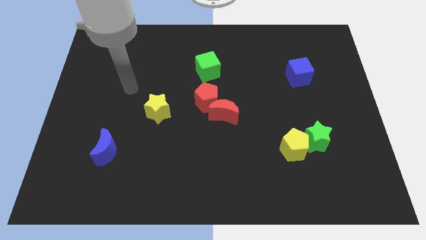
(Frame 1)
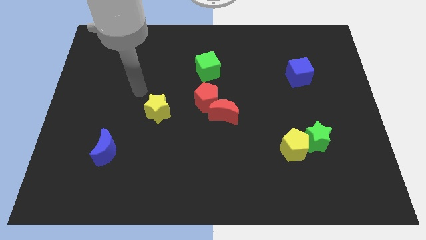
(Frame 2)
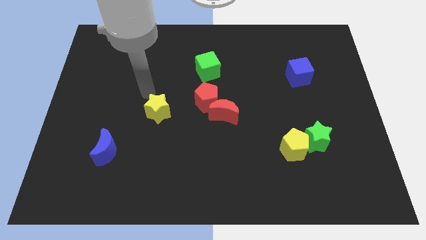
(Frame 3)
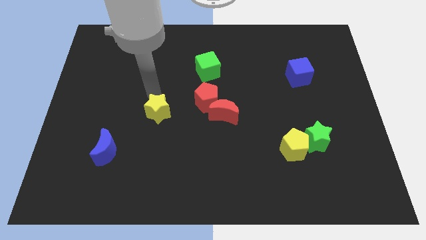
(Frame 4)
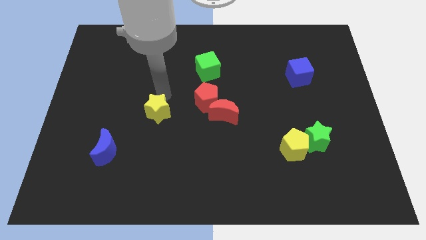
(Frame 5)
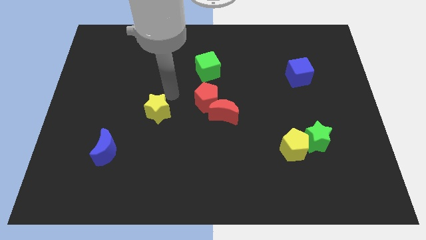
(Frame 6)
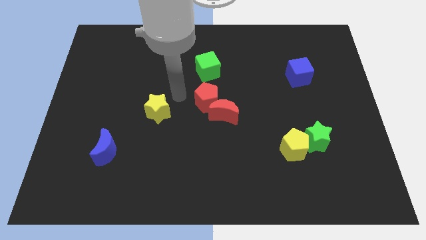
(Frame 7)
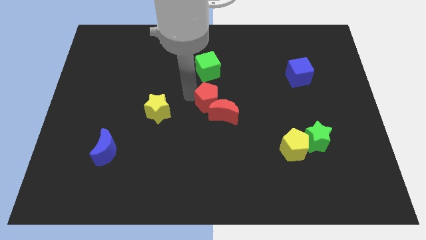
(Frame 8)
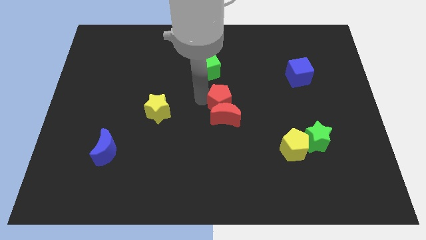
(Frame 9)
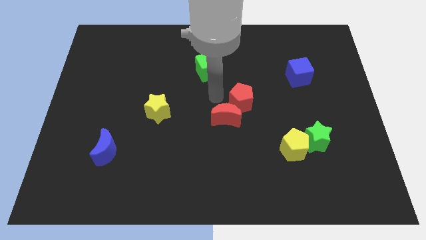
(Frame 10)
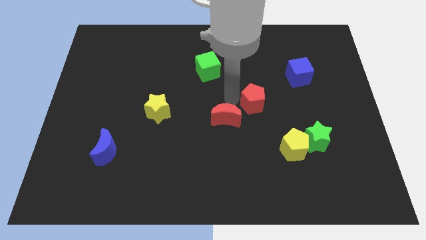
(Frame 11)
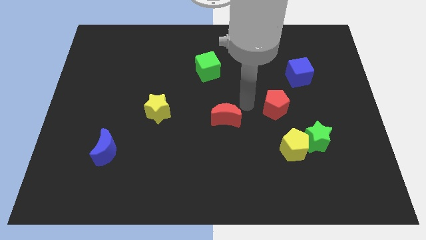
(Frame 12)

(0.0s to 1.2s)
move the red moon away from the red pentagon

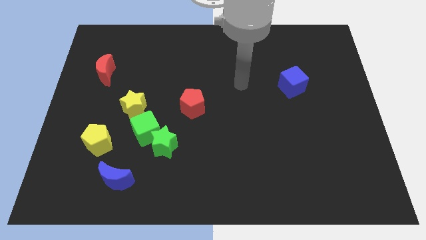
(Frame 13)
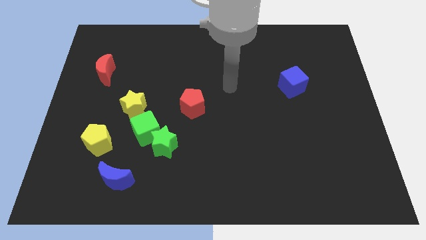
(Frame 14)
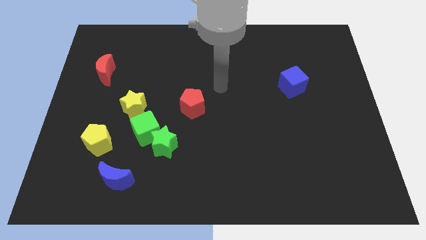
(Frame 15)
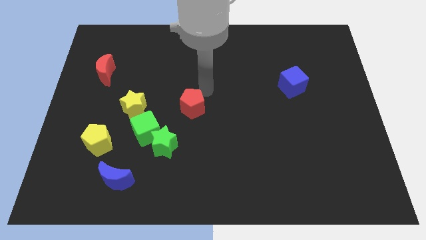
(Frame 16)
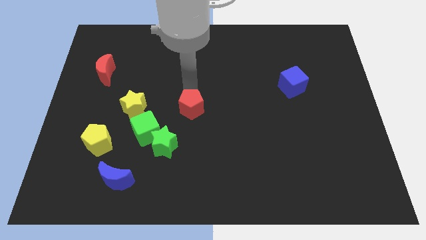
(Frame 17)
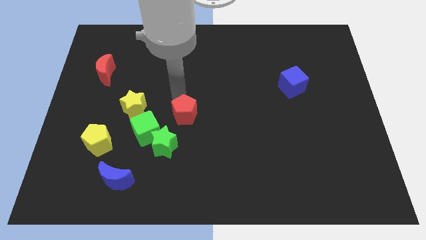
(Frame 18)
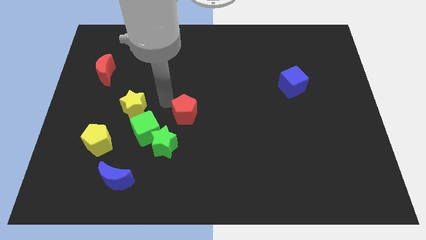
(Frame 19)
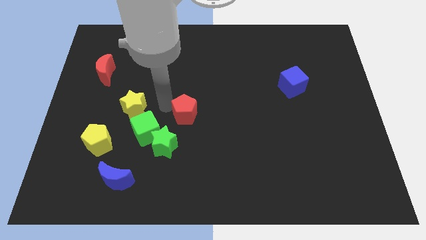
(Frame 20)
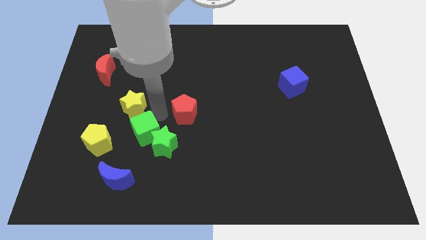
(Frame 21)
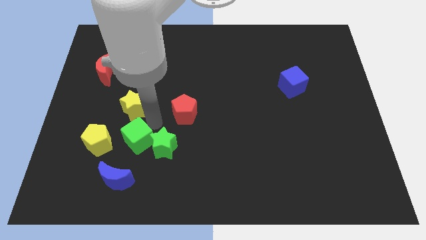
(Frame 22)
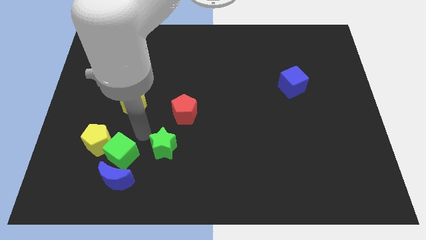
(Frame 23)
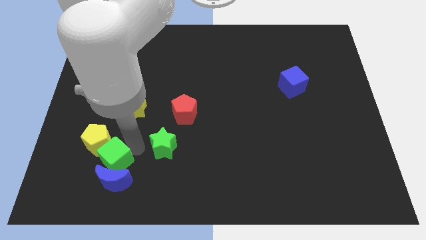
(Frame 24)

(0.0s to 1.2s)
pull the green star apart from the green cube

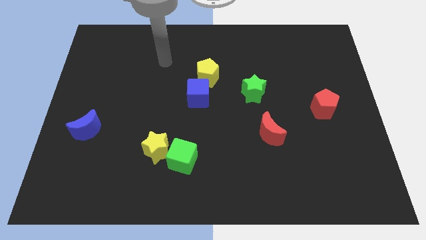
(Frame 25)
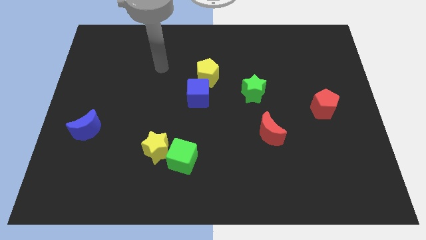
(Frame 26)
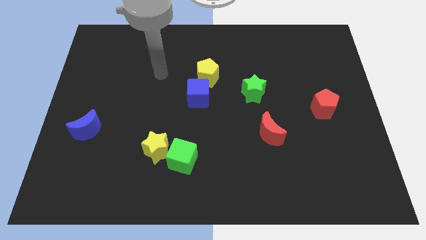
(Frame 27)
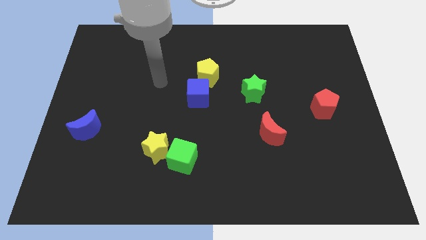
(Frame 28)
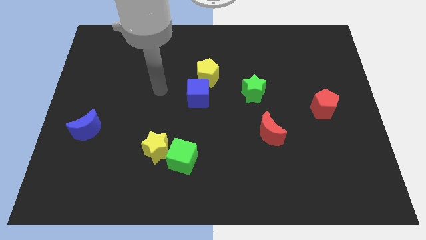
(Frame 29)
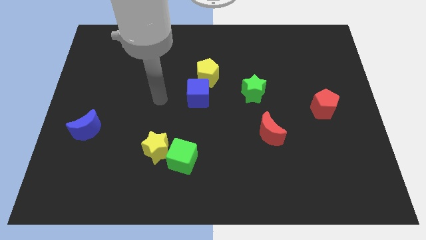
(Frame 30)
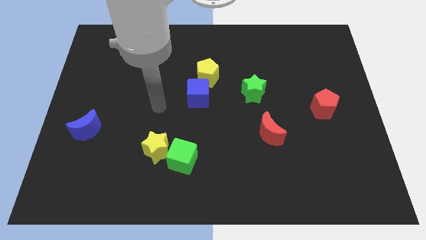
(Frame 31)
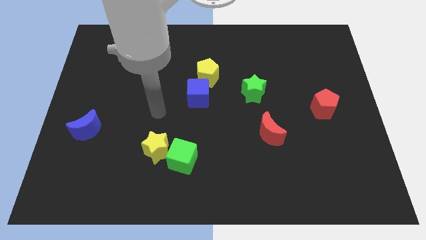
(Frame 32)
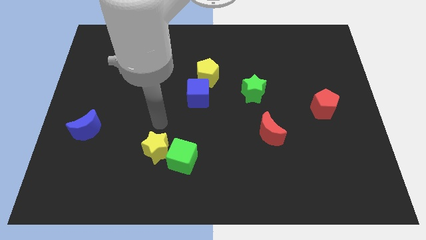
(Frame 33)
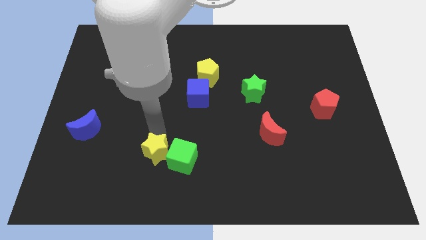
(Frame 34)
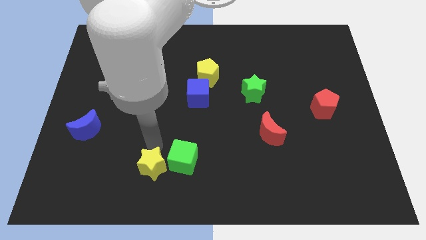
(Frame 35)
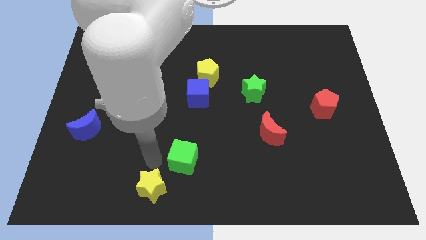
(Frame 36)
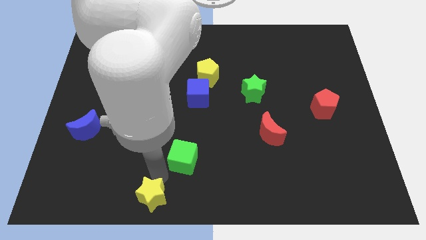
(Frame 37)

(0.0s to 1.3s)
pull the green cube apart from the yellow star

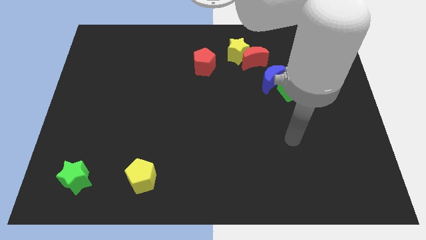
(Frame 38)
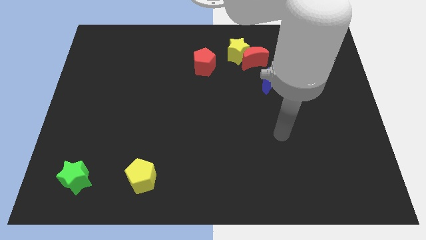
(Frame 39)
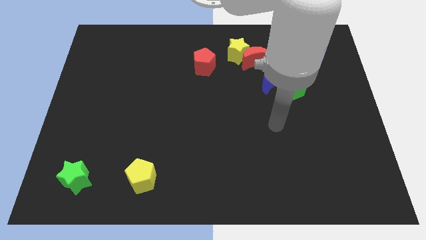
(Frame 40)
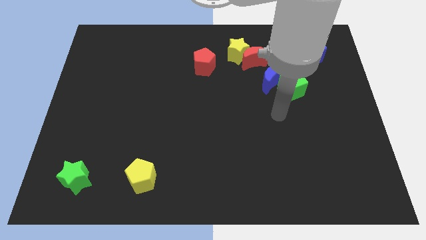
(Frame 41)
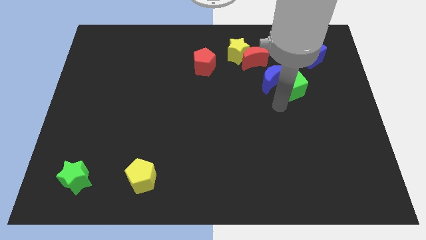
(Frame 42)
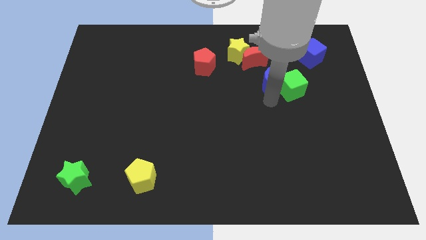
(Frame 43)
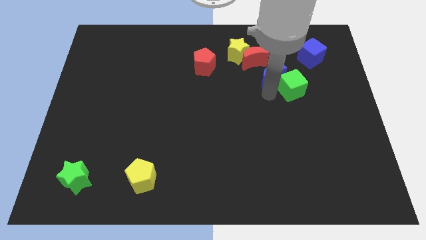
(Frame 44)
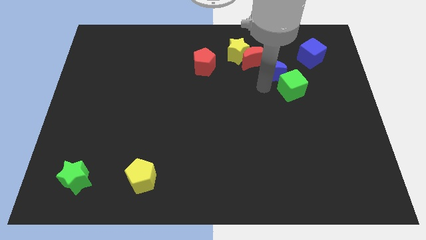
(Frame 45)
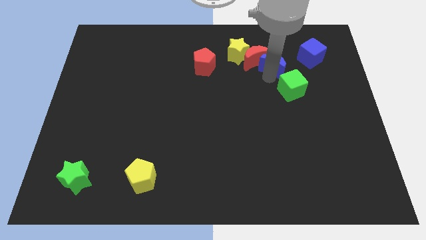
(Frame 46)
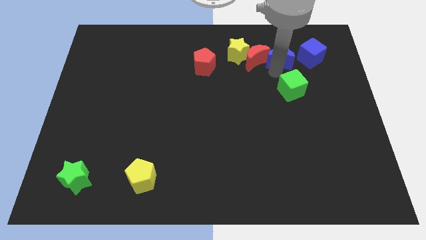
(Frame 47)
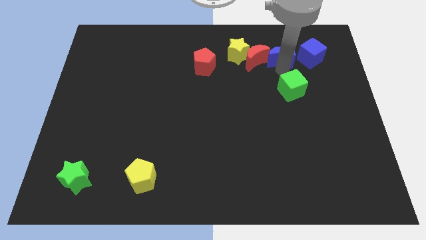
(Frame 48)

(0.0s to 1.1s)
separate the green cube from the blue moon

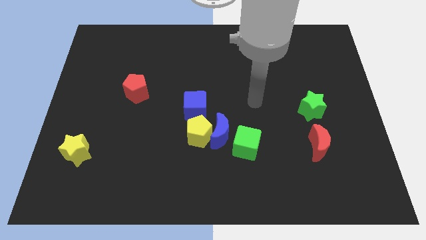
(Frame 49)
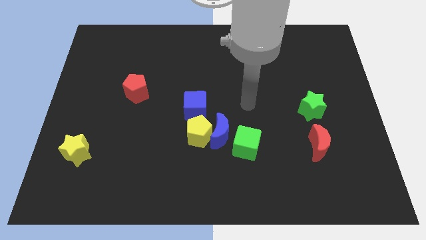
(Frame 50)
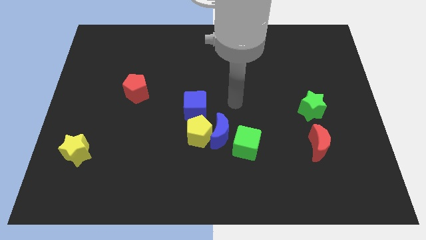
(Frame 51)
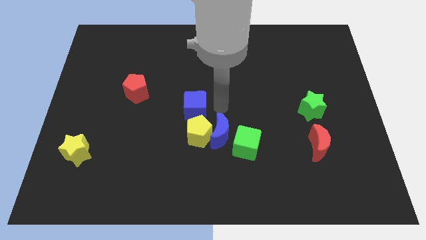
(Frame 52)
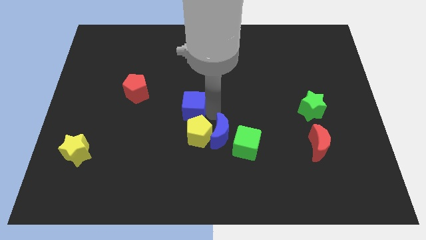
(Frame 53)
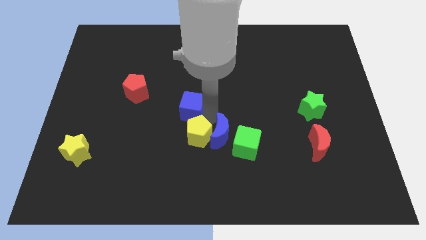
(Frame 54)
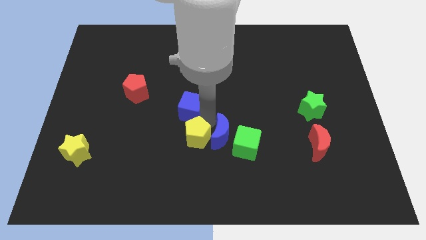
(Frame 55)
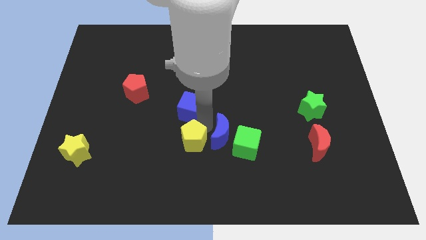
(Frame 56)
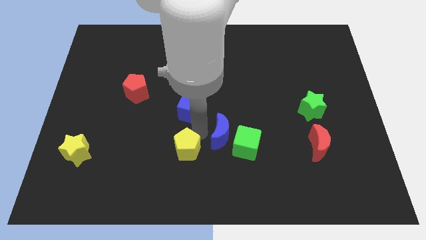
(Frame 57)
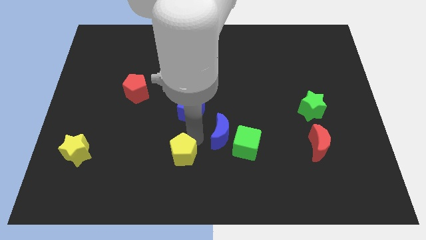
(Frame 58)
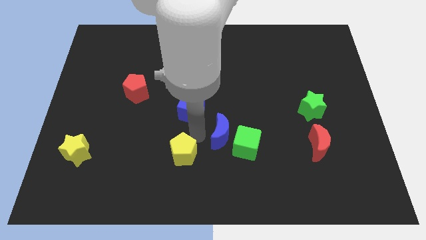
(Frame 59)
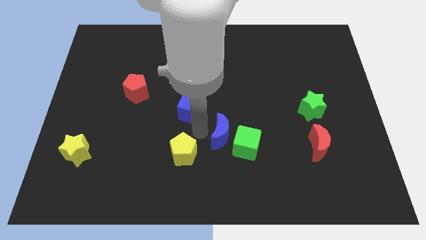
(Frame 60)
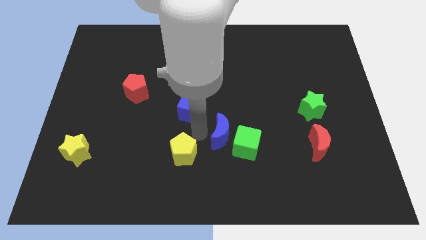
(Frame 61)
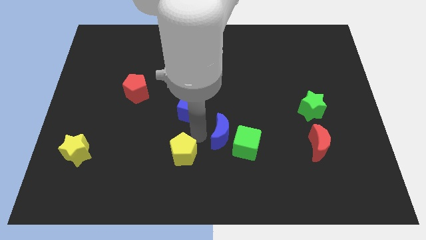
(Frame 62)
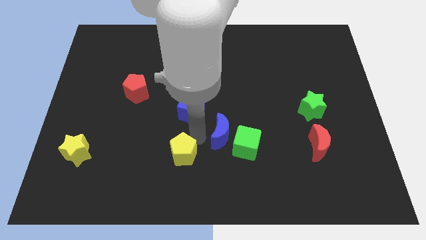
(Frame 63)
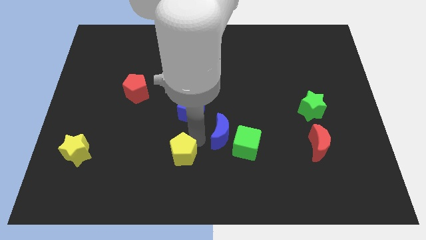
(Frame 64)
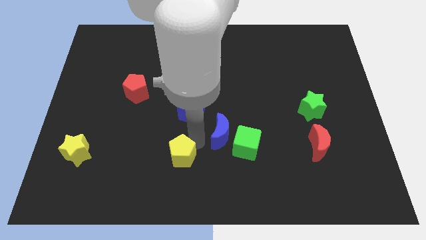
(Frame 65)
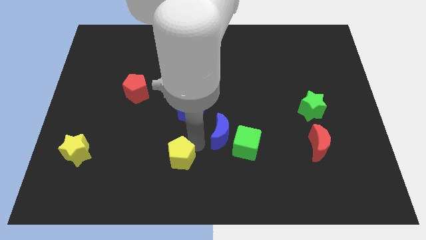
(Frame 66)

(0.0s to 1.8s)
pull the yellow pentagon apart from the blue moon and blue cube

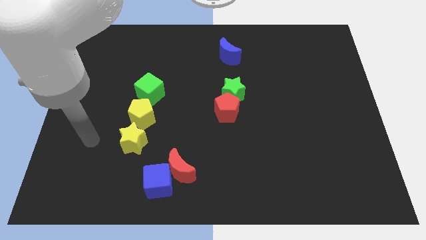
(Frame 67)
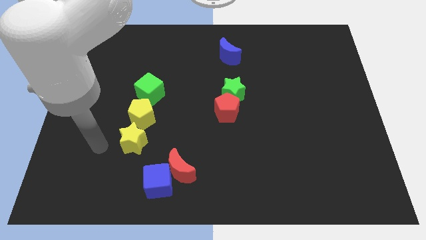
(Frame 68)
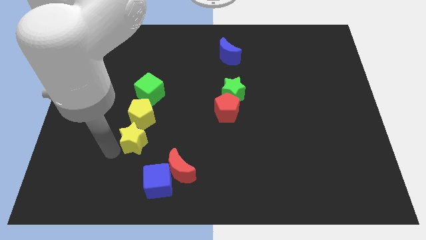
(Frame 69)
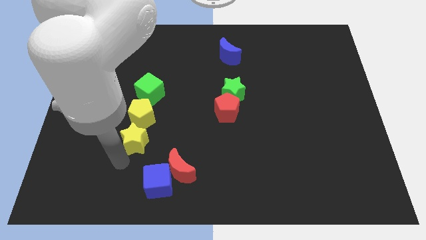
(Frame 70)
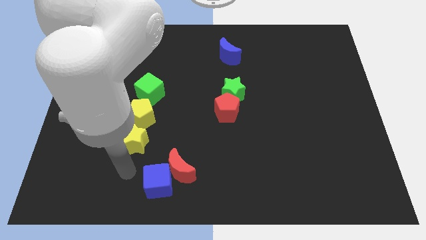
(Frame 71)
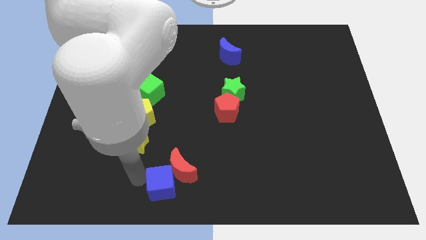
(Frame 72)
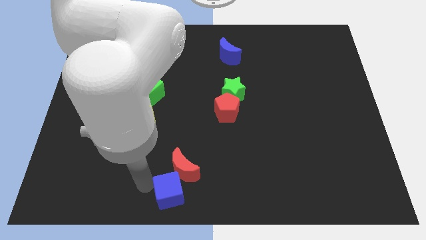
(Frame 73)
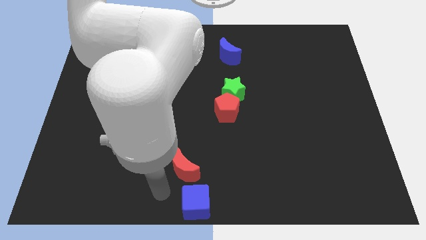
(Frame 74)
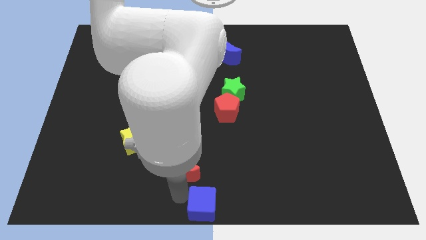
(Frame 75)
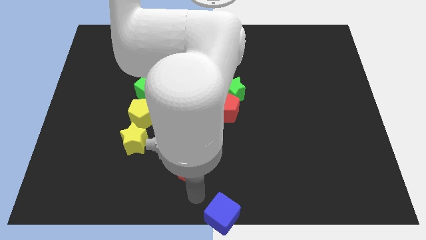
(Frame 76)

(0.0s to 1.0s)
move the red moon away from the blue cube

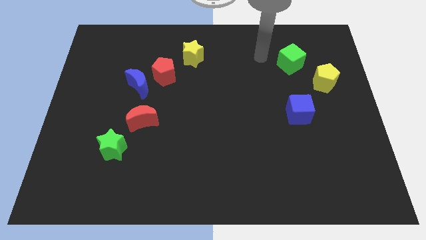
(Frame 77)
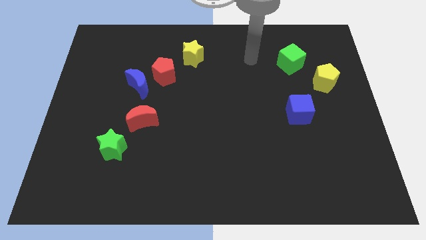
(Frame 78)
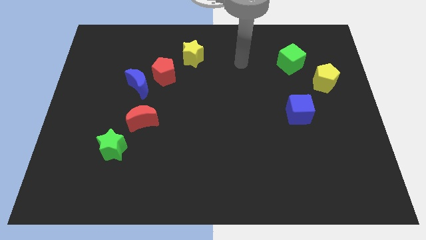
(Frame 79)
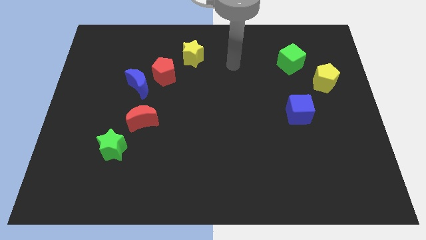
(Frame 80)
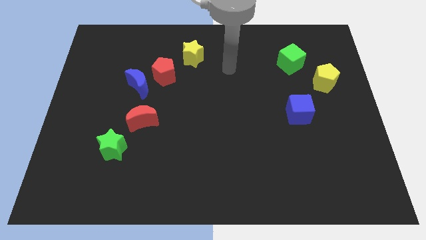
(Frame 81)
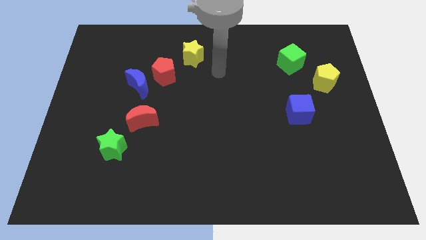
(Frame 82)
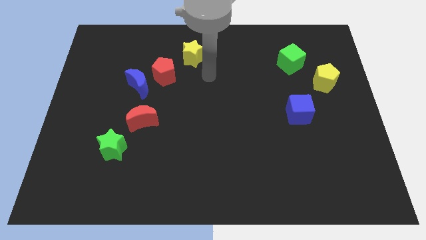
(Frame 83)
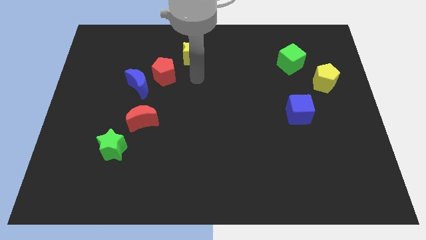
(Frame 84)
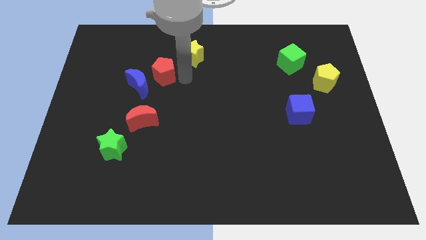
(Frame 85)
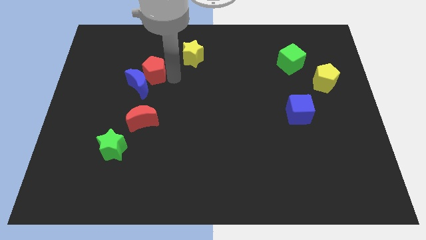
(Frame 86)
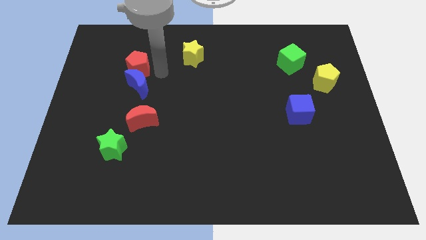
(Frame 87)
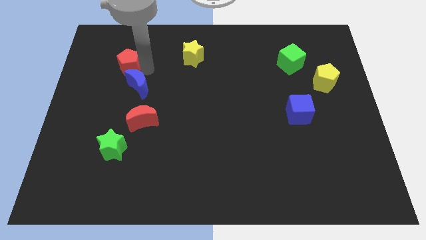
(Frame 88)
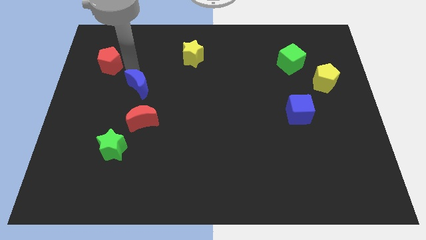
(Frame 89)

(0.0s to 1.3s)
move the blue moon away from the red pentagon

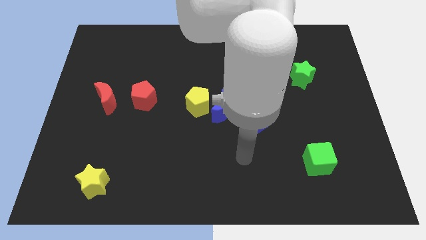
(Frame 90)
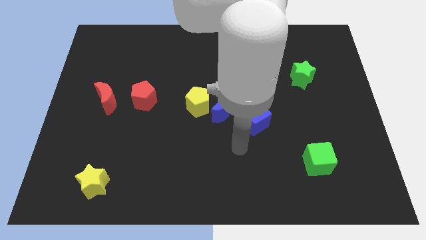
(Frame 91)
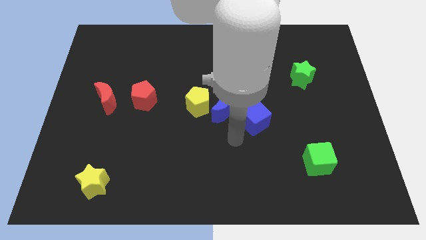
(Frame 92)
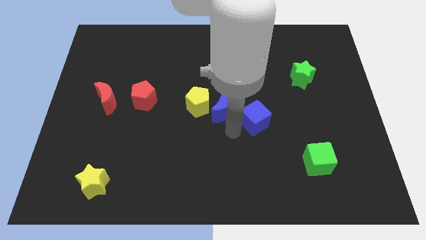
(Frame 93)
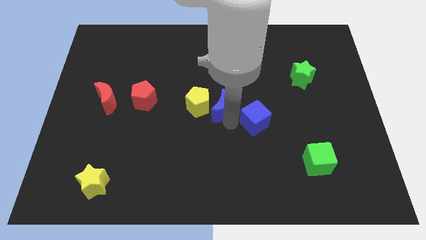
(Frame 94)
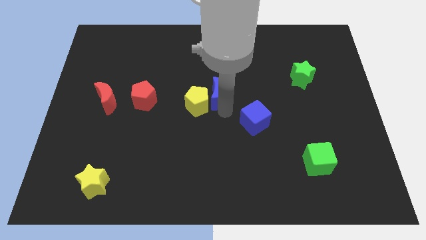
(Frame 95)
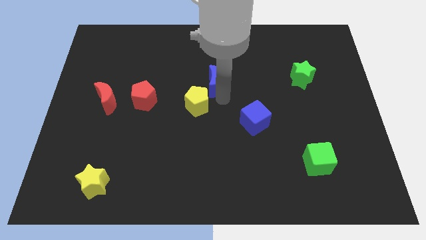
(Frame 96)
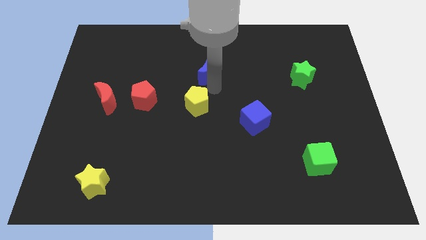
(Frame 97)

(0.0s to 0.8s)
pull the yellow pentagon apart from the blue moon
